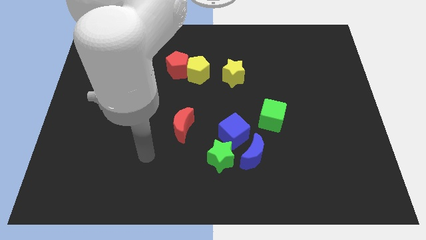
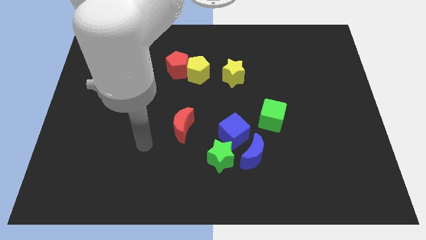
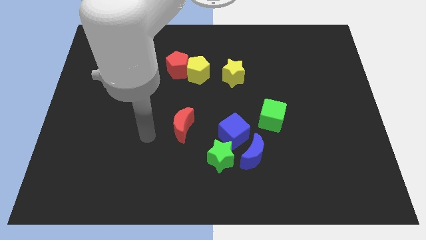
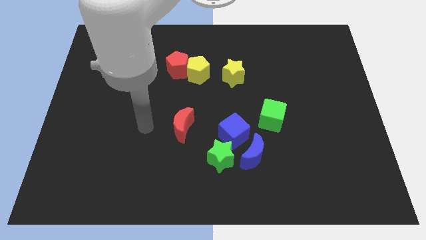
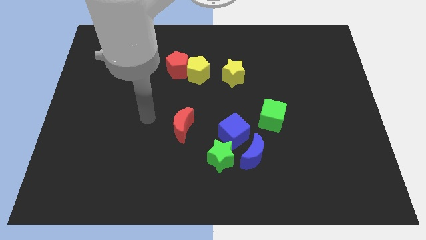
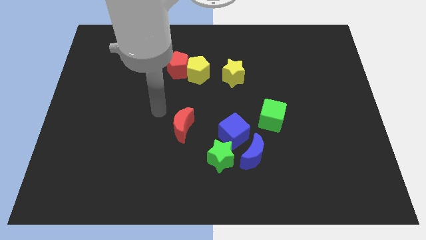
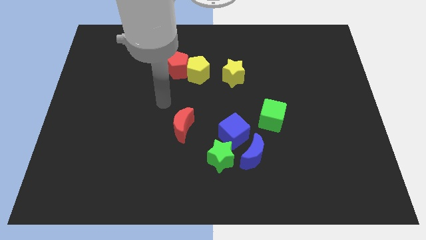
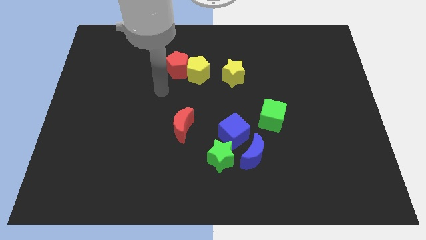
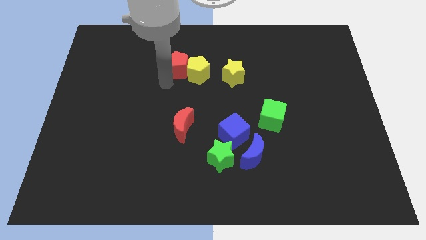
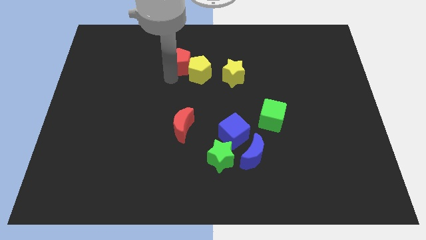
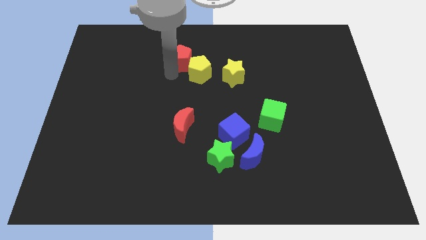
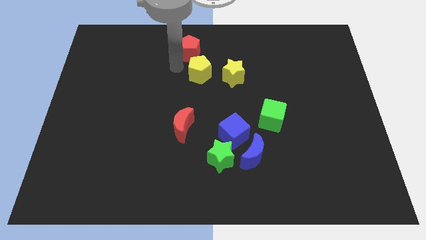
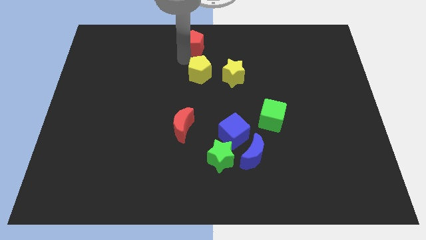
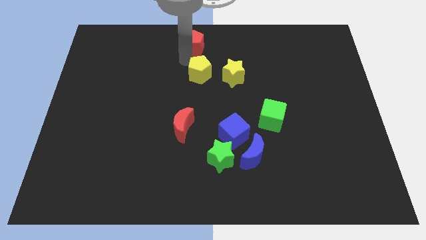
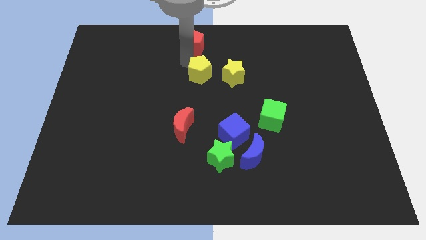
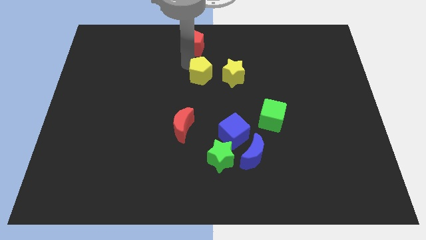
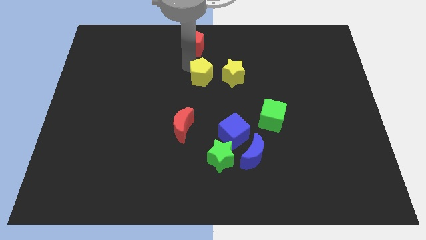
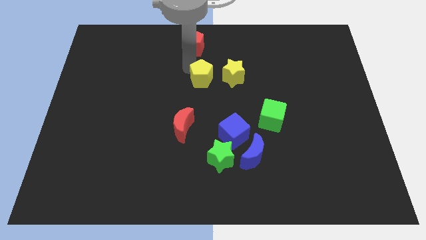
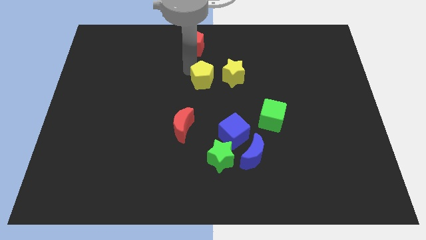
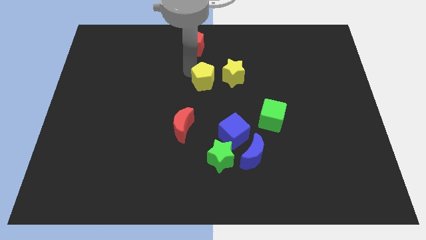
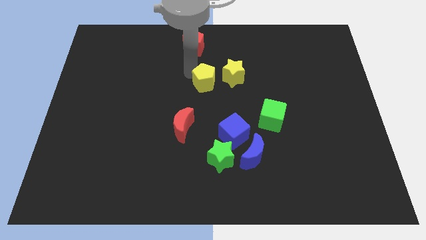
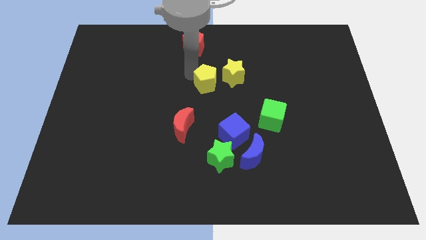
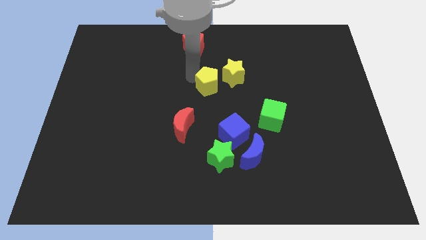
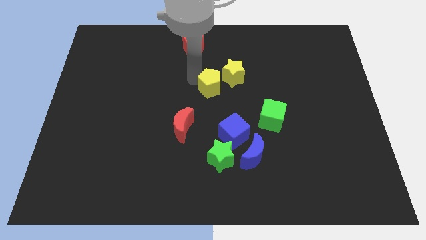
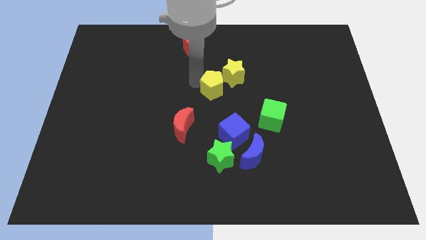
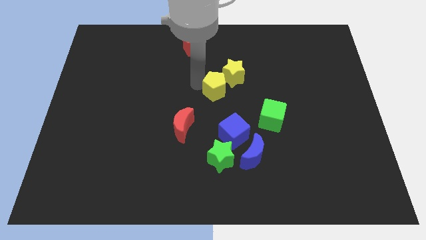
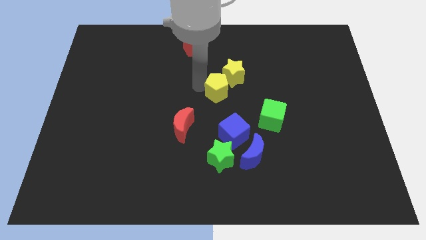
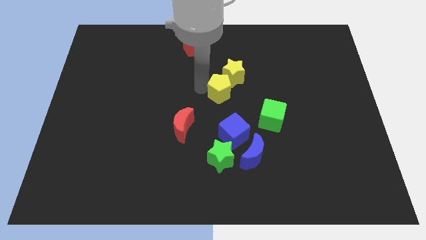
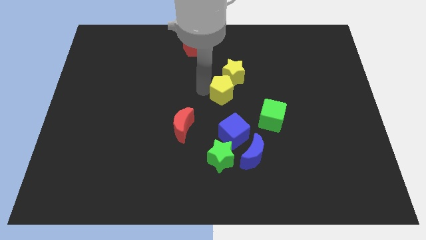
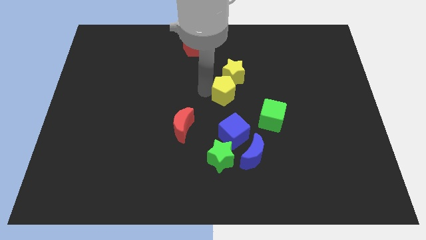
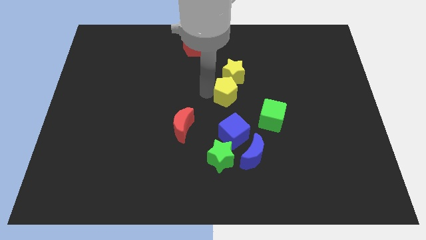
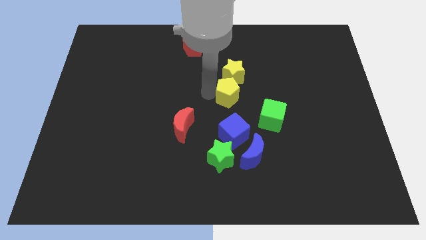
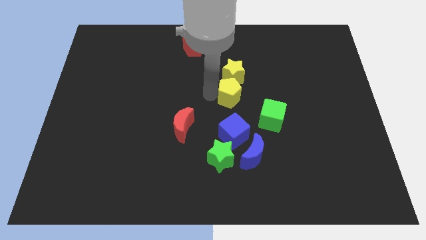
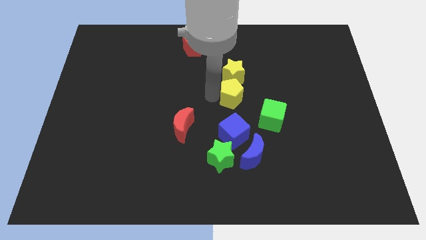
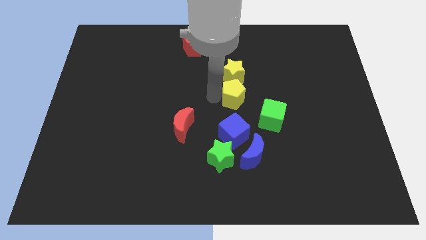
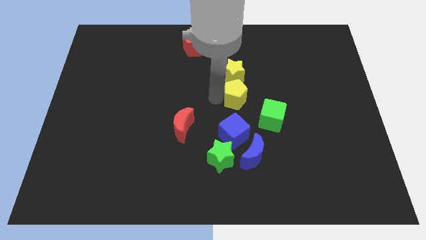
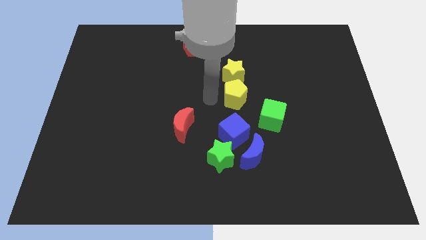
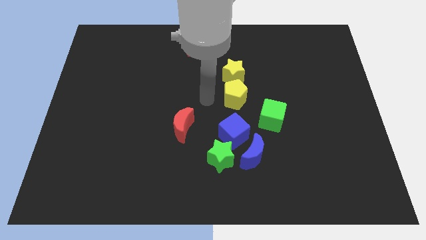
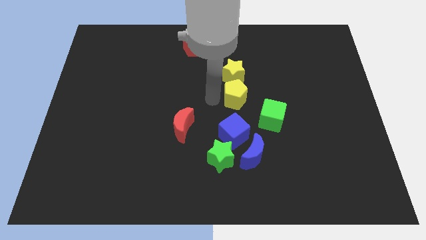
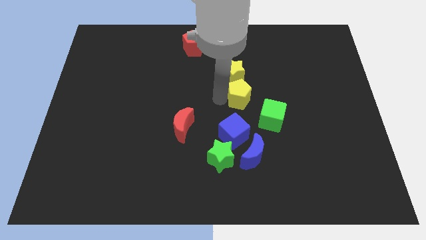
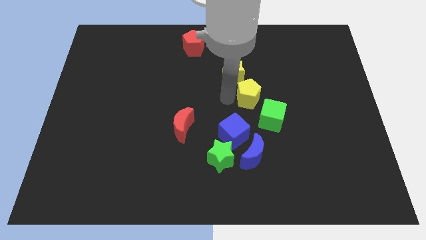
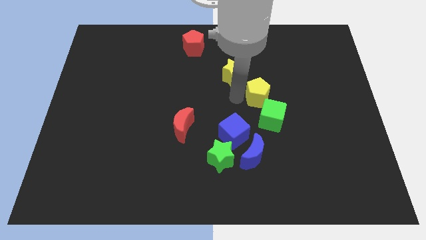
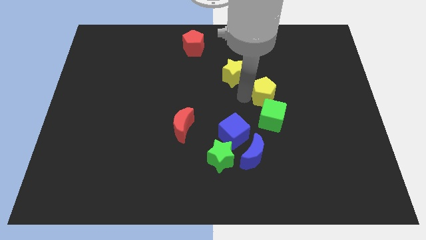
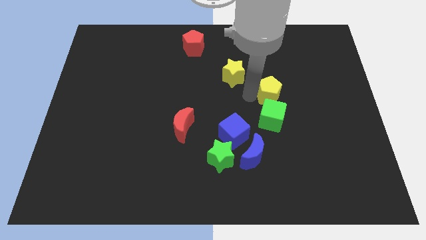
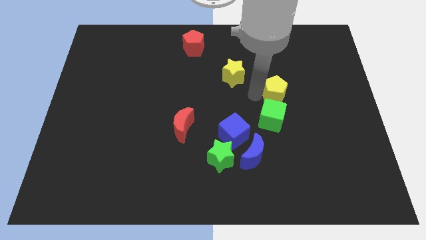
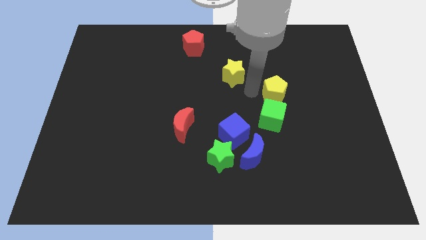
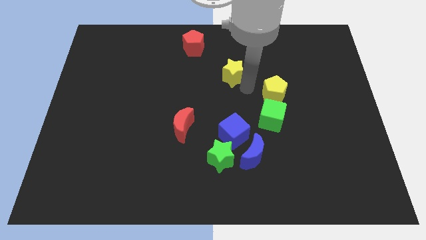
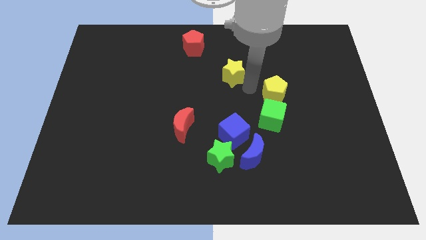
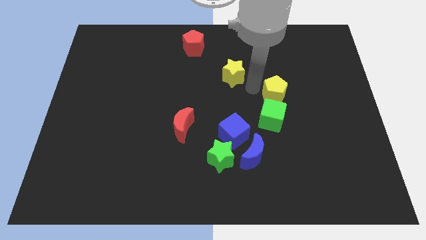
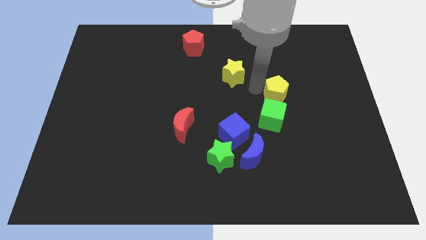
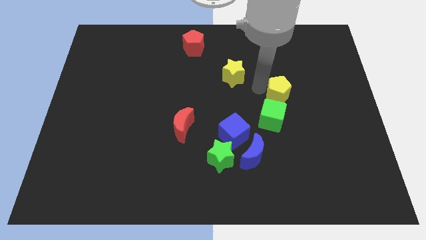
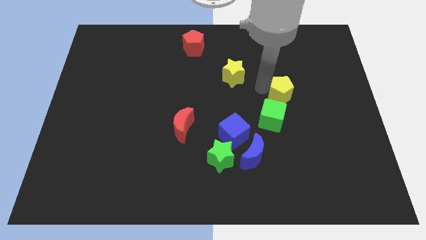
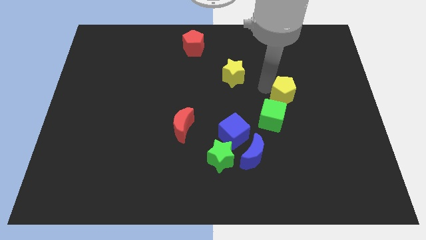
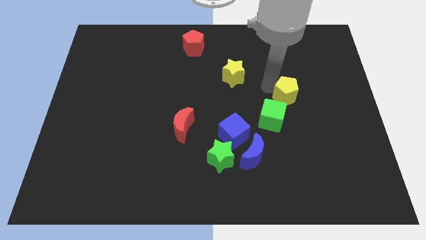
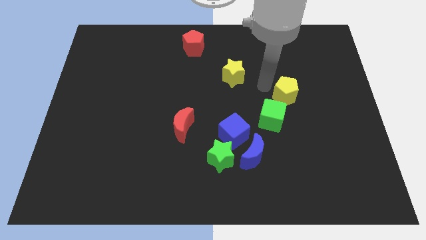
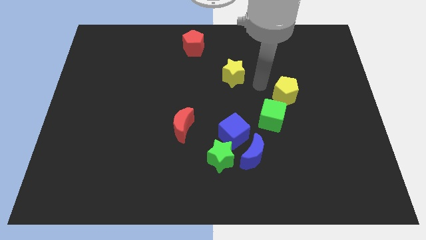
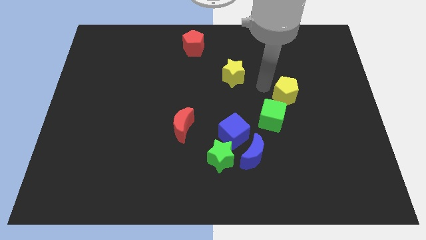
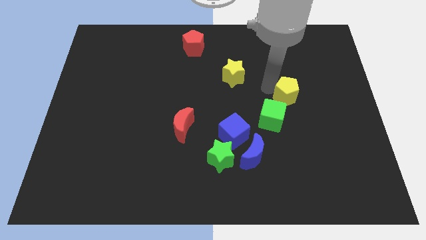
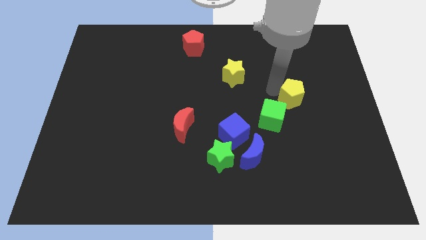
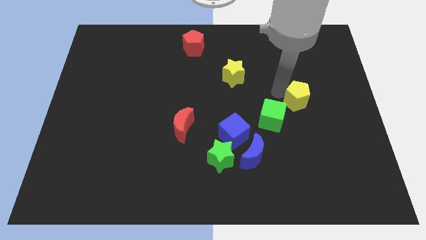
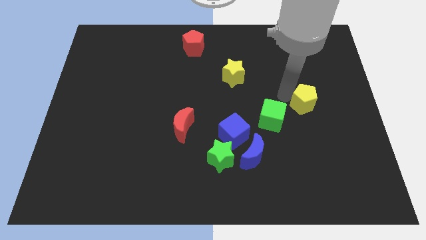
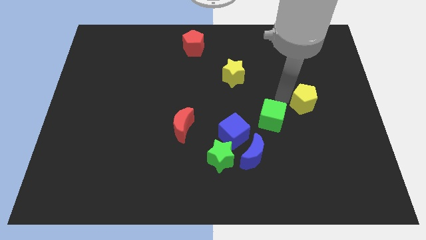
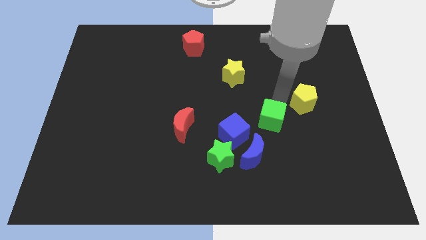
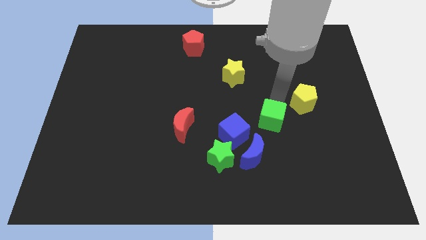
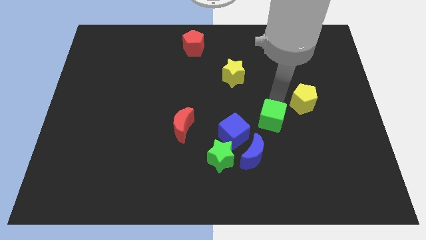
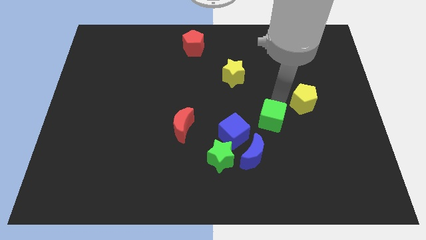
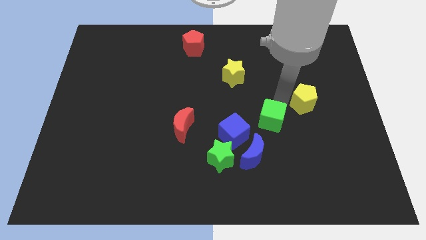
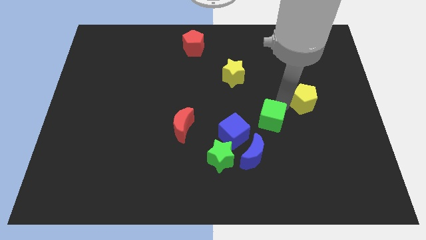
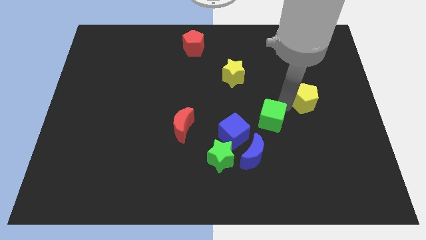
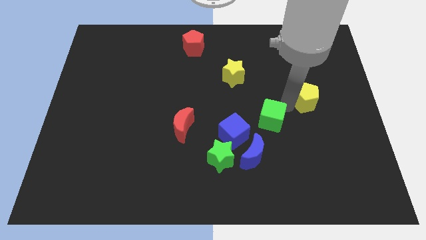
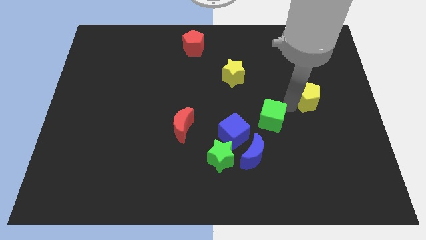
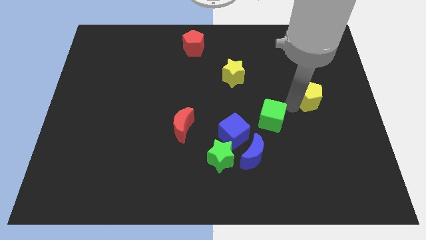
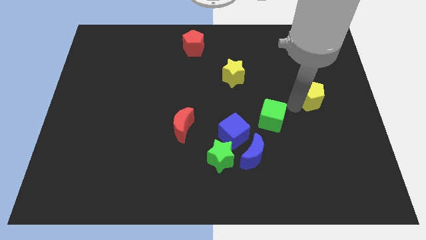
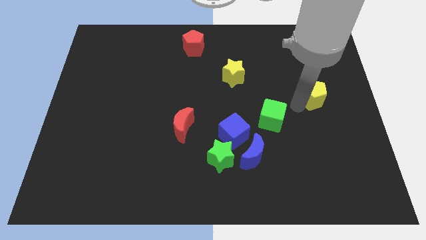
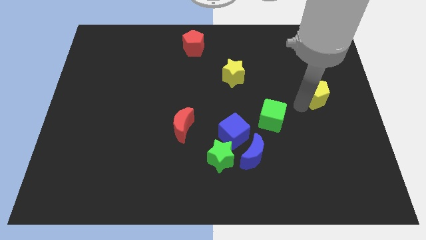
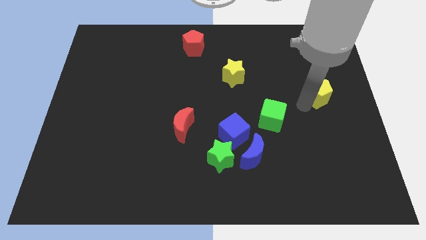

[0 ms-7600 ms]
put the yellow pentagon to the right side of the board

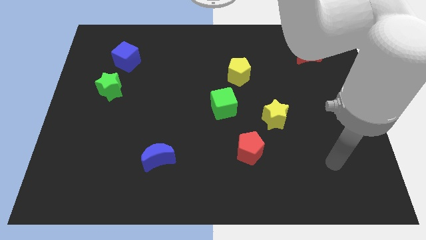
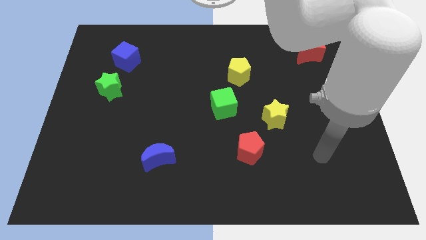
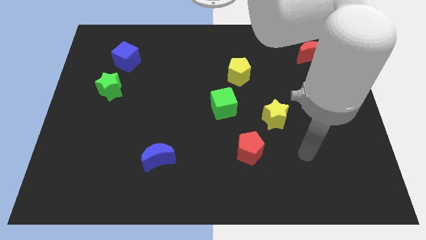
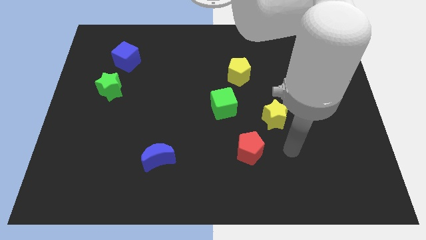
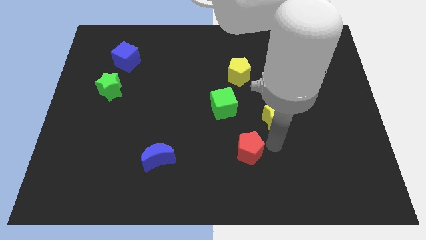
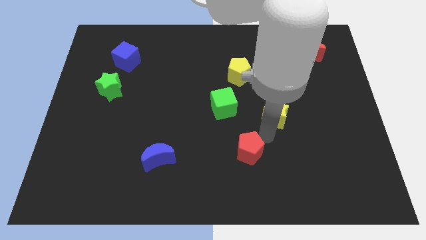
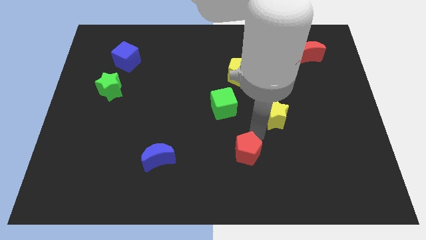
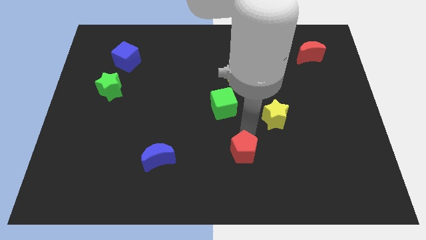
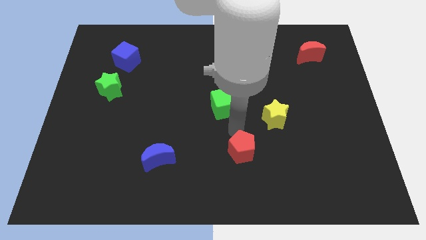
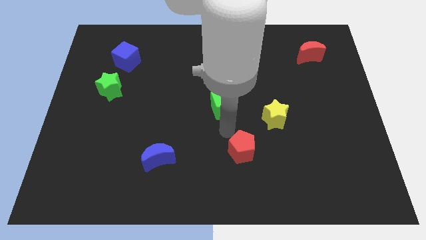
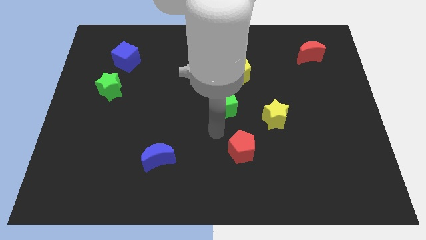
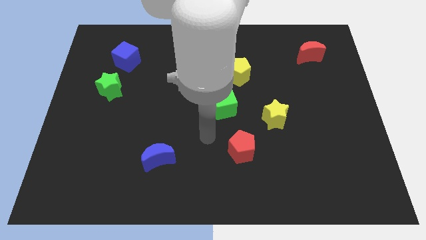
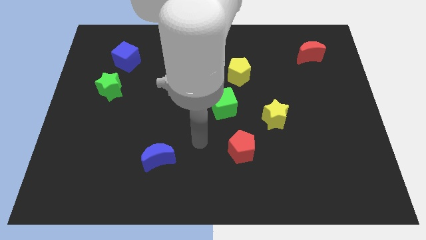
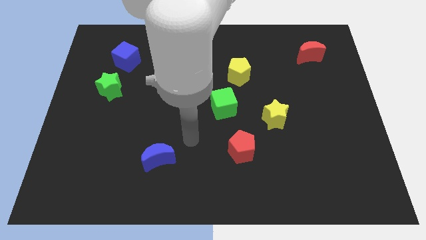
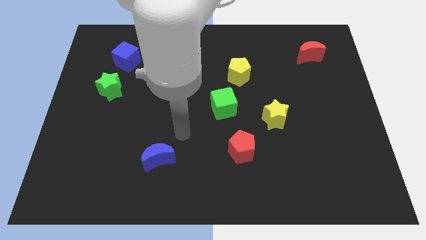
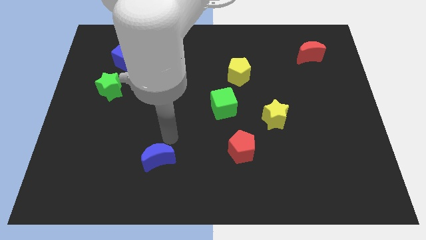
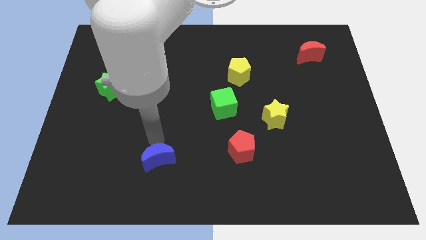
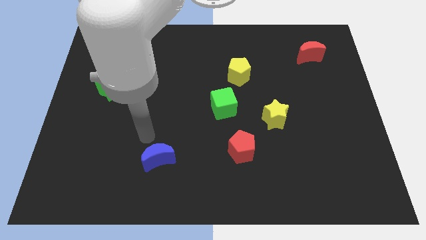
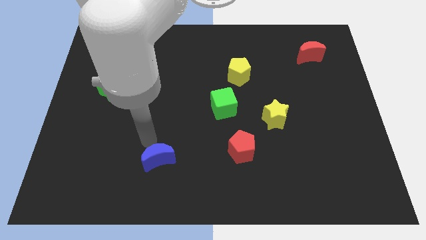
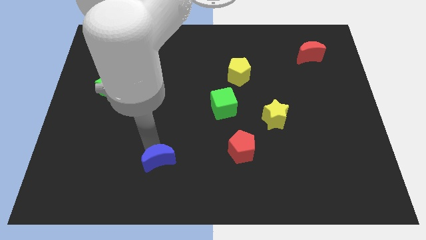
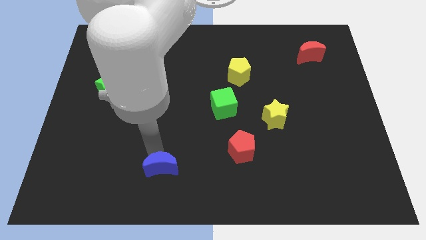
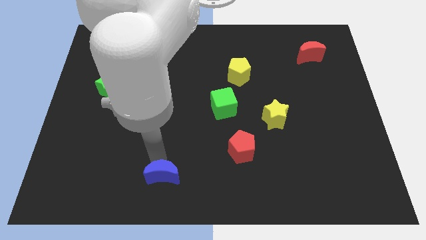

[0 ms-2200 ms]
push the blue moon to the bottom side
